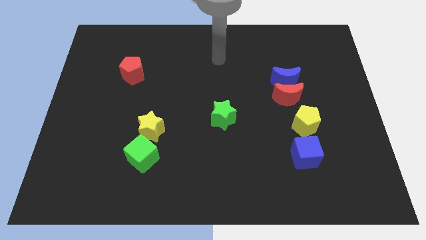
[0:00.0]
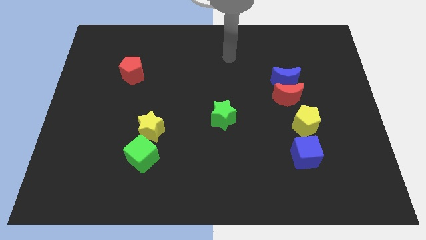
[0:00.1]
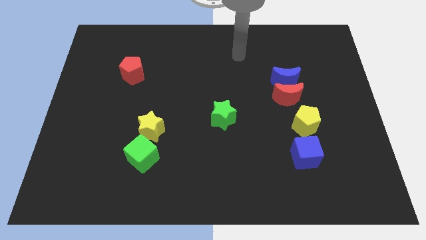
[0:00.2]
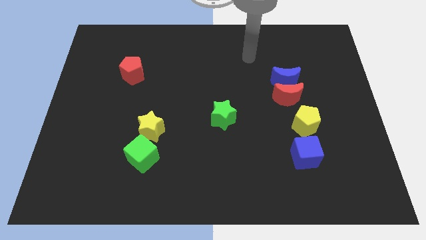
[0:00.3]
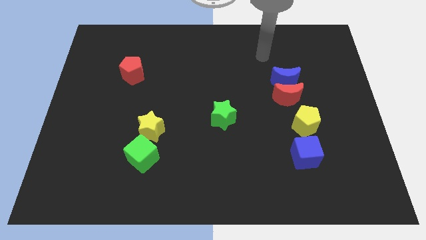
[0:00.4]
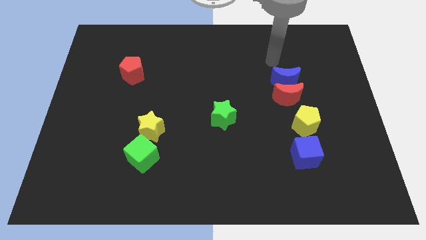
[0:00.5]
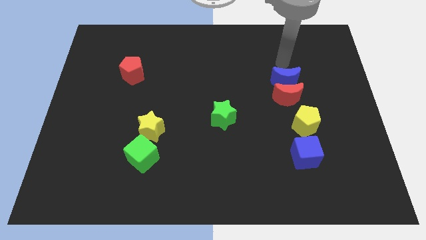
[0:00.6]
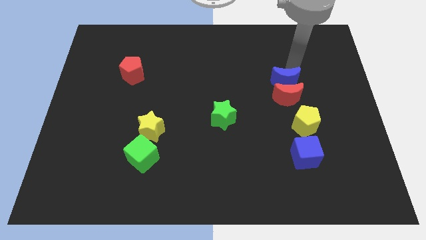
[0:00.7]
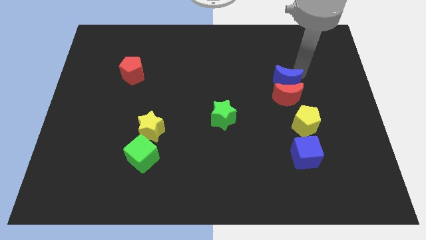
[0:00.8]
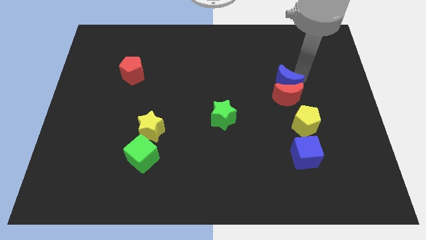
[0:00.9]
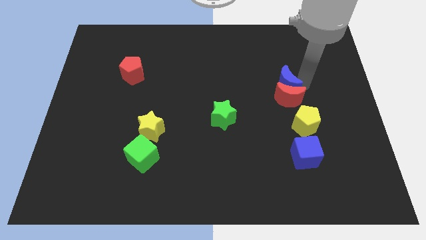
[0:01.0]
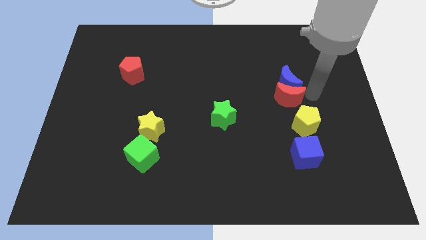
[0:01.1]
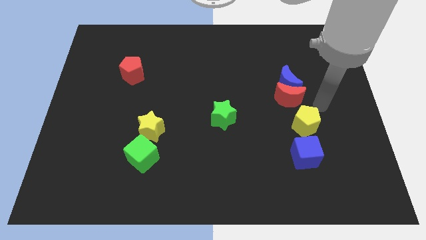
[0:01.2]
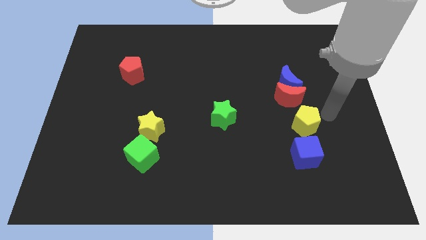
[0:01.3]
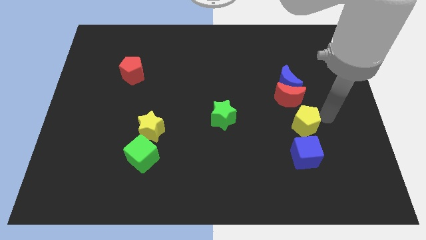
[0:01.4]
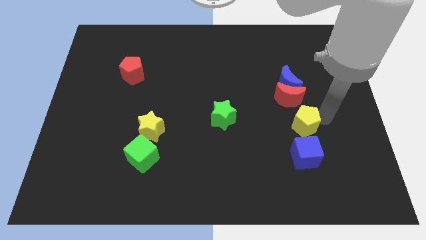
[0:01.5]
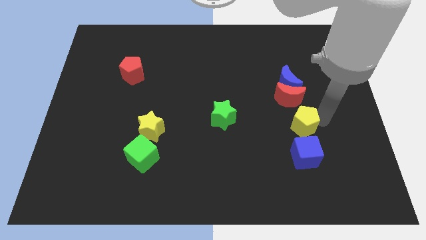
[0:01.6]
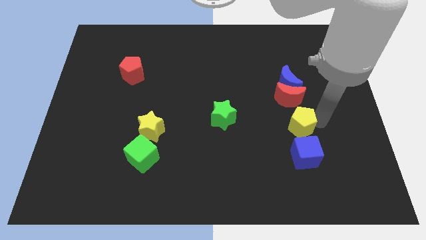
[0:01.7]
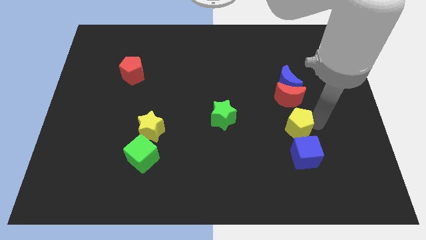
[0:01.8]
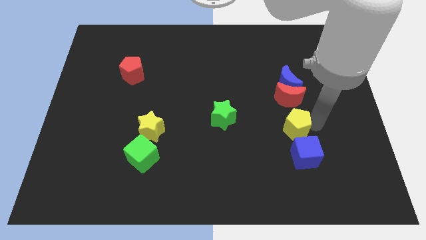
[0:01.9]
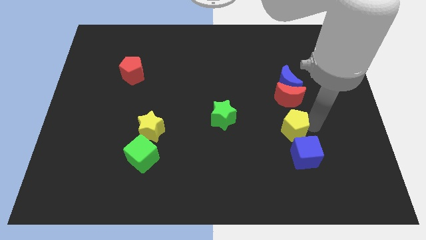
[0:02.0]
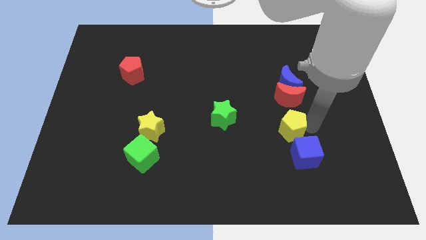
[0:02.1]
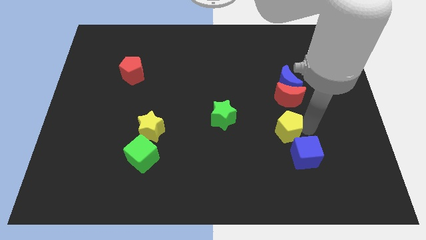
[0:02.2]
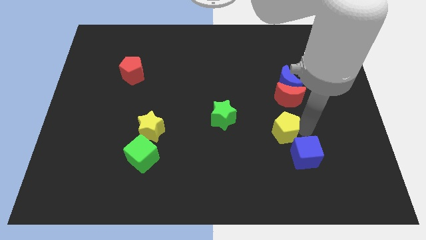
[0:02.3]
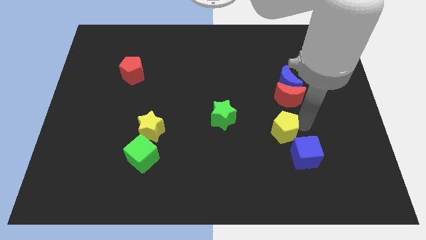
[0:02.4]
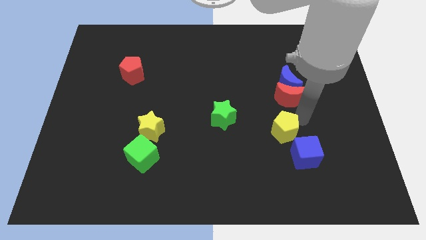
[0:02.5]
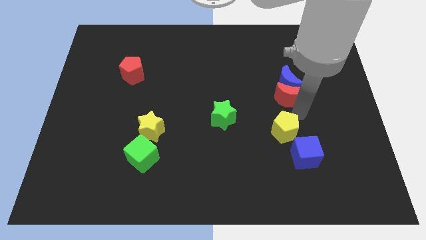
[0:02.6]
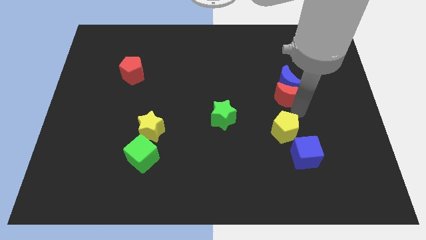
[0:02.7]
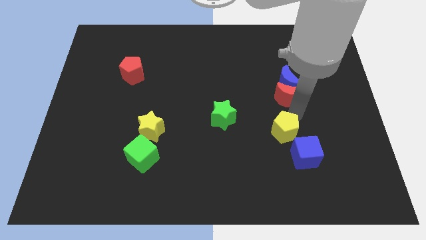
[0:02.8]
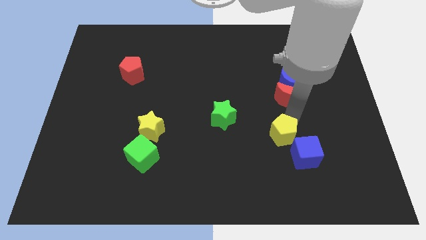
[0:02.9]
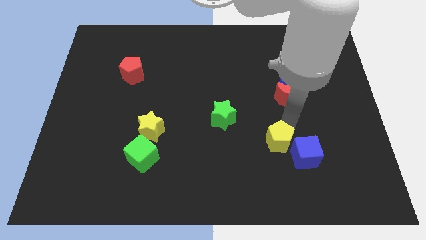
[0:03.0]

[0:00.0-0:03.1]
push the yellow pentagon somewhat diagonally down and to the left

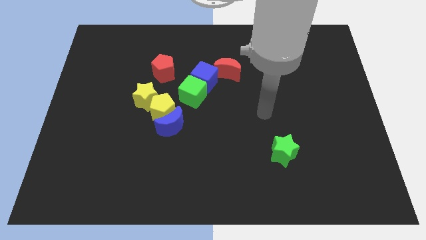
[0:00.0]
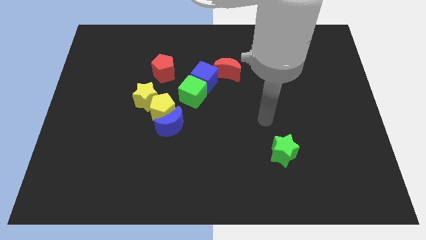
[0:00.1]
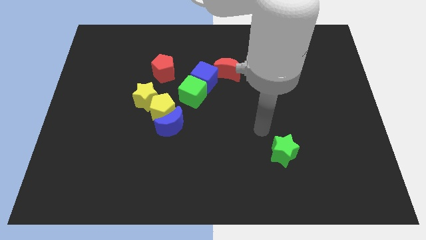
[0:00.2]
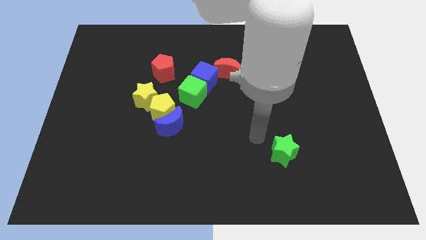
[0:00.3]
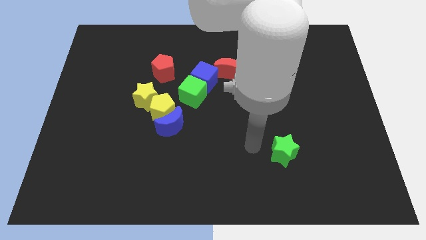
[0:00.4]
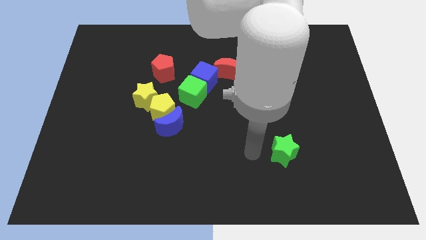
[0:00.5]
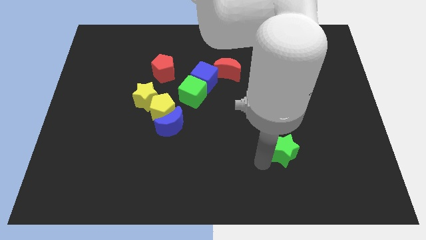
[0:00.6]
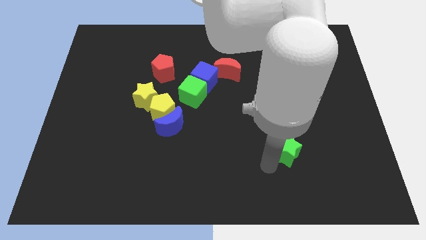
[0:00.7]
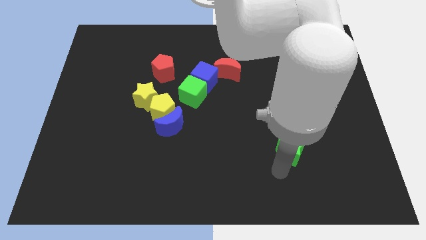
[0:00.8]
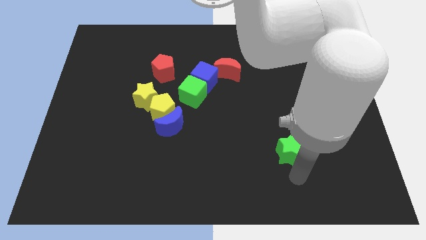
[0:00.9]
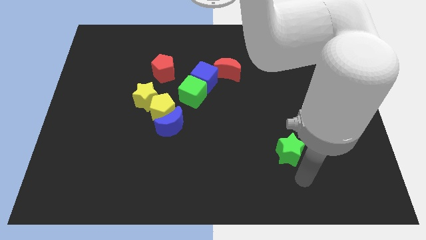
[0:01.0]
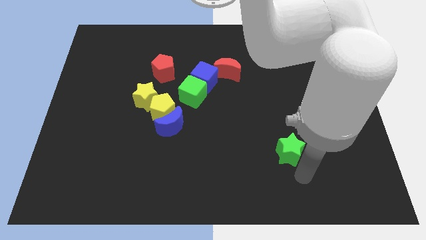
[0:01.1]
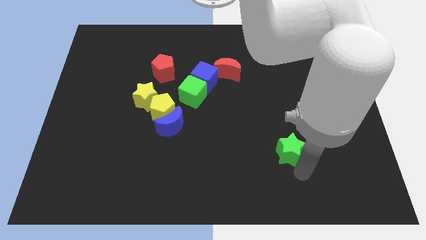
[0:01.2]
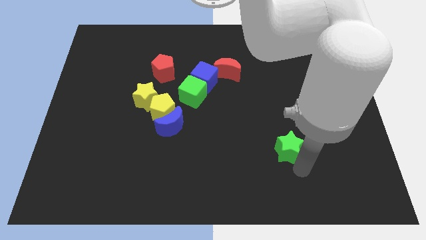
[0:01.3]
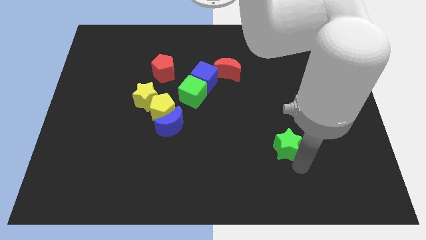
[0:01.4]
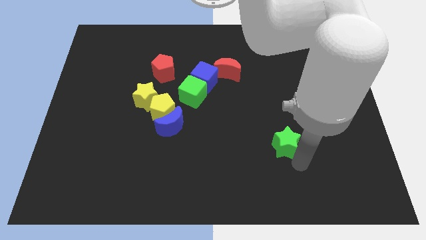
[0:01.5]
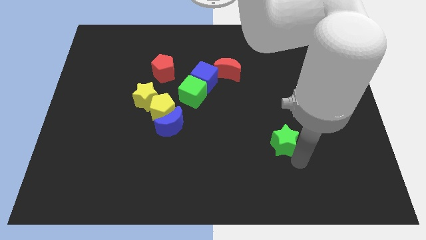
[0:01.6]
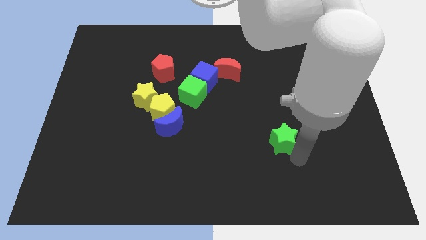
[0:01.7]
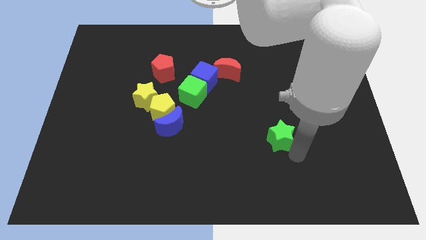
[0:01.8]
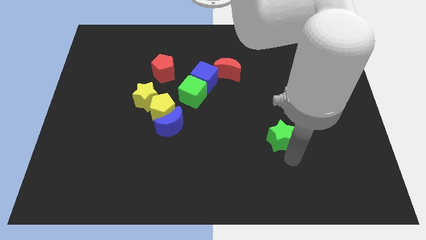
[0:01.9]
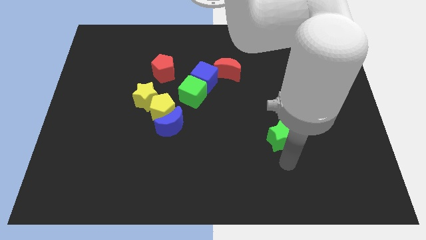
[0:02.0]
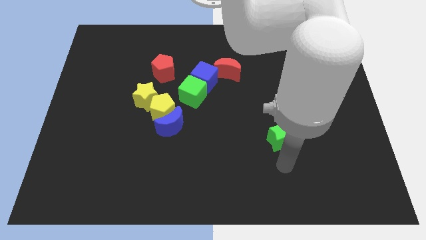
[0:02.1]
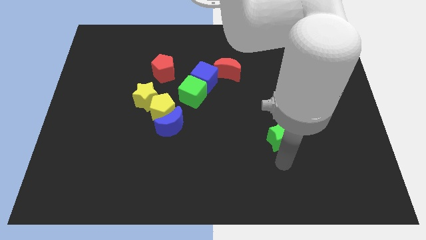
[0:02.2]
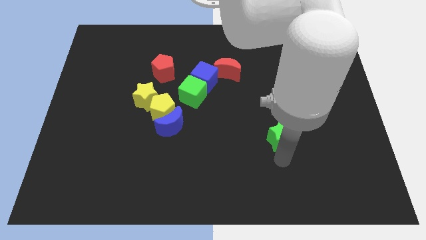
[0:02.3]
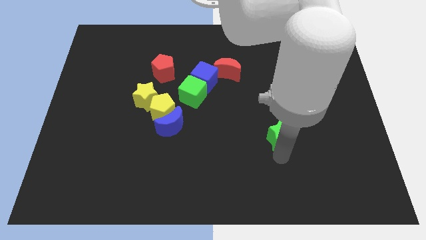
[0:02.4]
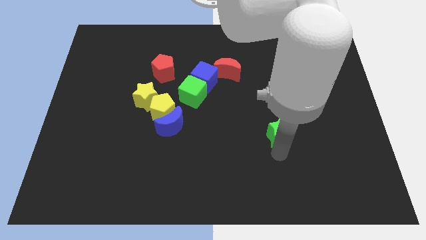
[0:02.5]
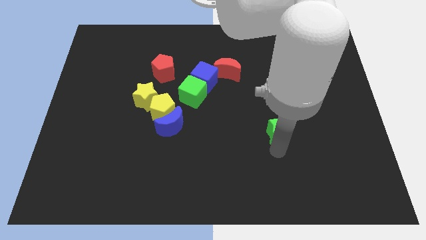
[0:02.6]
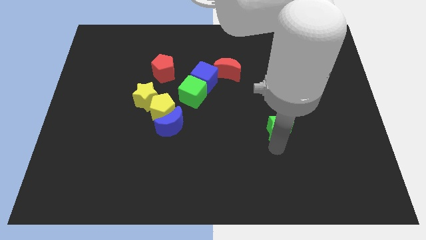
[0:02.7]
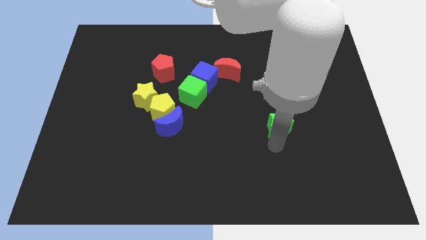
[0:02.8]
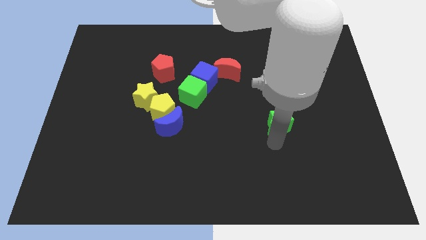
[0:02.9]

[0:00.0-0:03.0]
slightly move the green star upwards

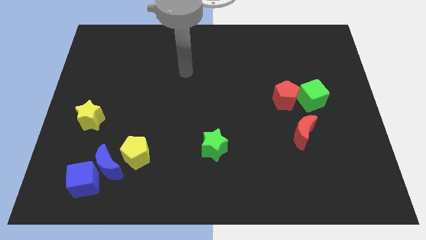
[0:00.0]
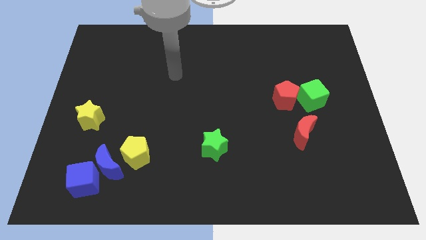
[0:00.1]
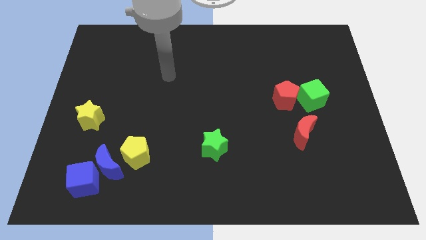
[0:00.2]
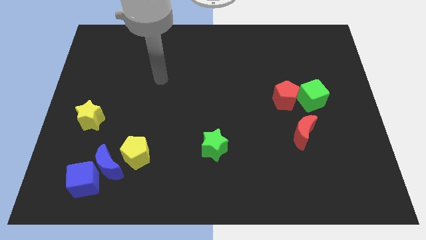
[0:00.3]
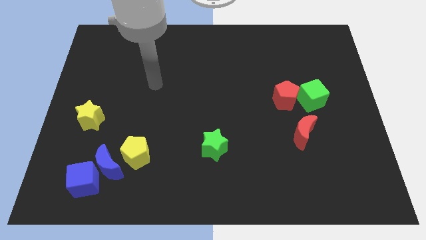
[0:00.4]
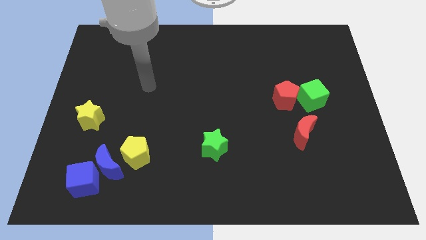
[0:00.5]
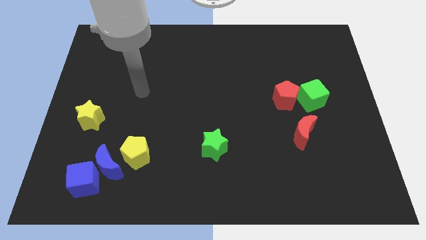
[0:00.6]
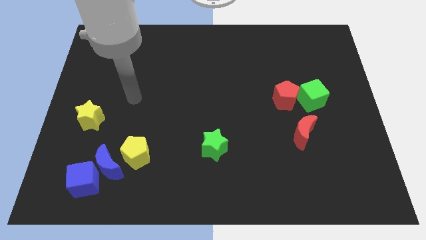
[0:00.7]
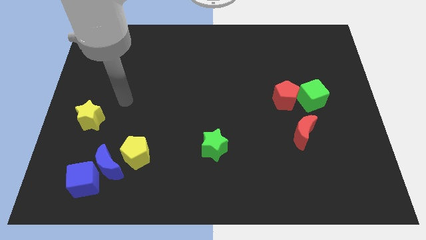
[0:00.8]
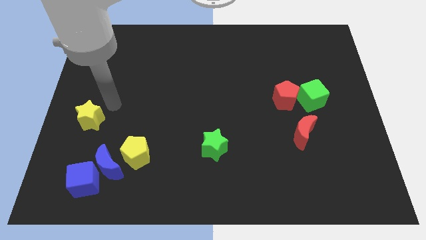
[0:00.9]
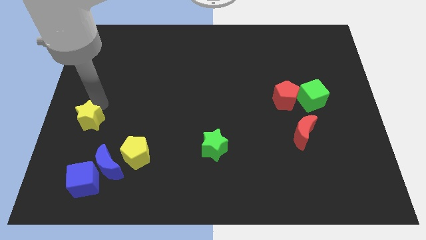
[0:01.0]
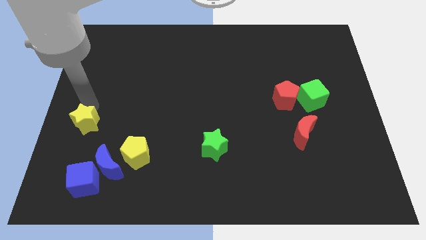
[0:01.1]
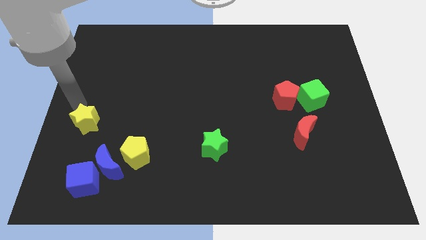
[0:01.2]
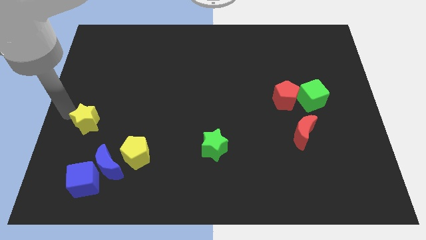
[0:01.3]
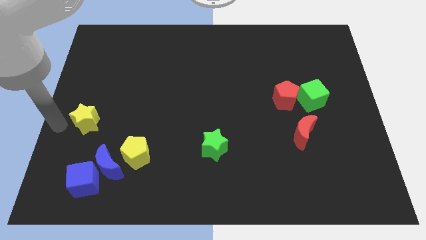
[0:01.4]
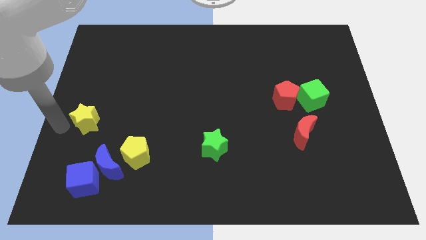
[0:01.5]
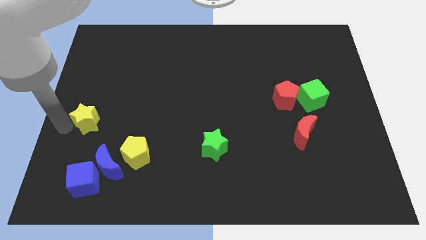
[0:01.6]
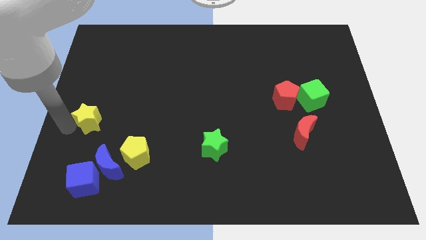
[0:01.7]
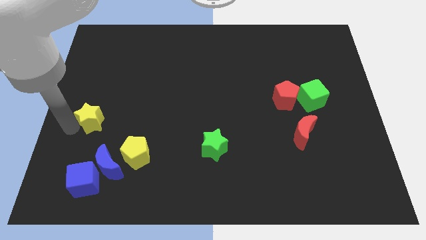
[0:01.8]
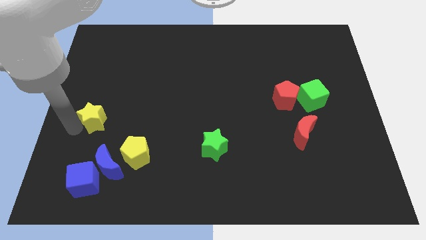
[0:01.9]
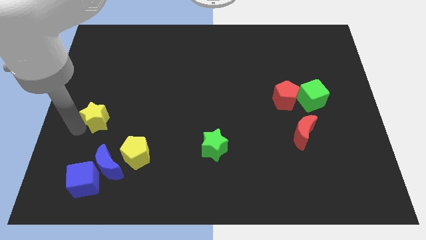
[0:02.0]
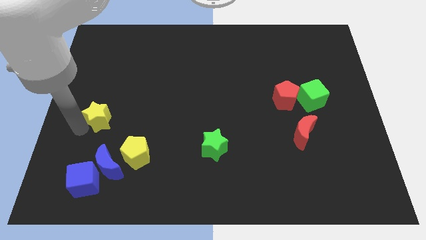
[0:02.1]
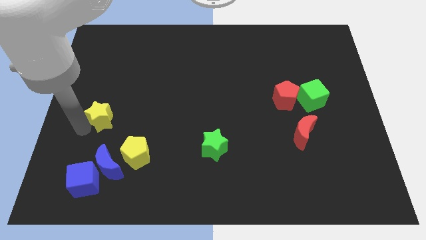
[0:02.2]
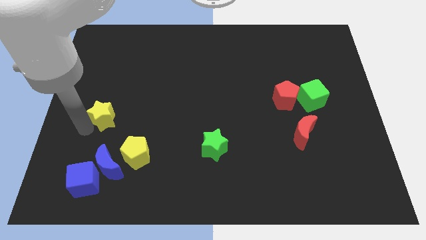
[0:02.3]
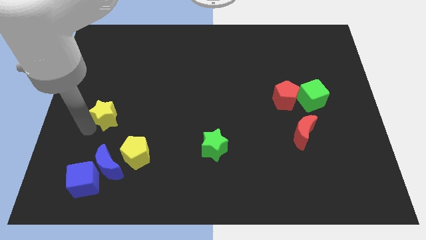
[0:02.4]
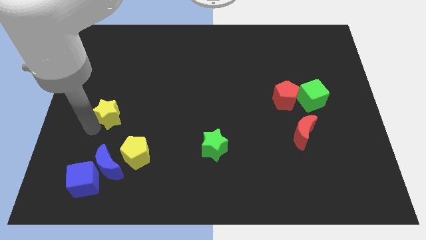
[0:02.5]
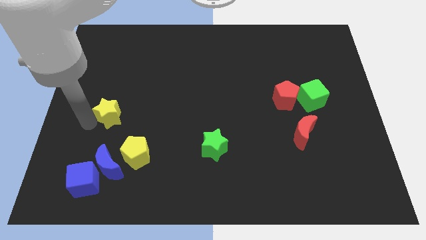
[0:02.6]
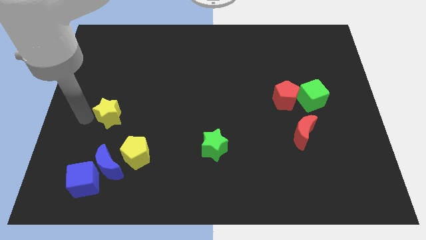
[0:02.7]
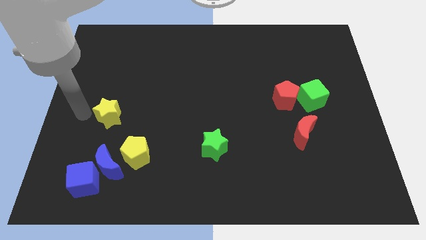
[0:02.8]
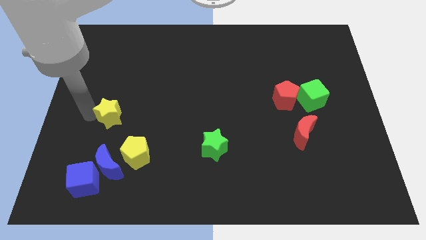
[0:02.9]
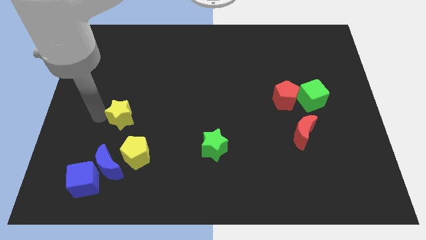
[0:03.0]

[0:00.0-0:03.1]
slightly push the yellow star to the right
